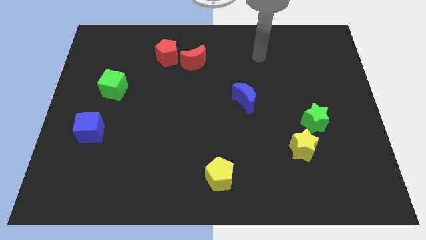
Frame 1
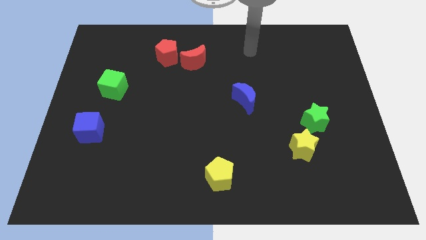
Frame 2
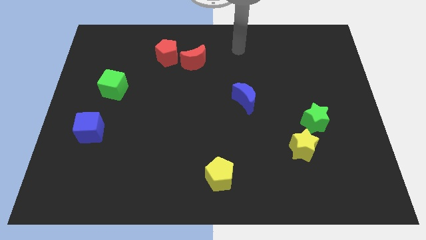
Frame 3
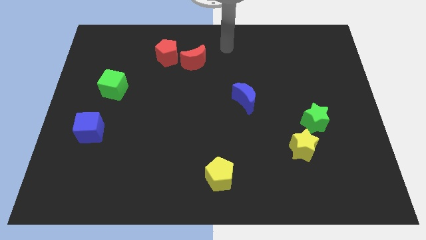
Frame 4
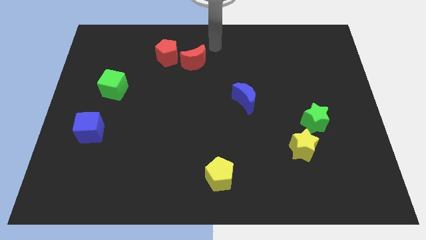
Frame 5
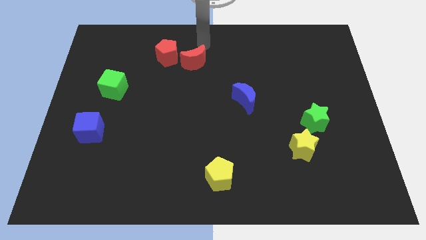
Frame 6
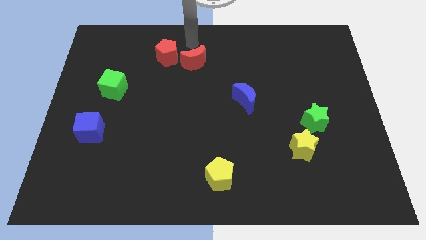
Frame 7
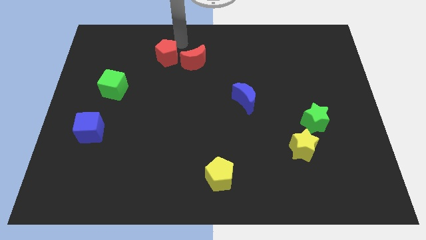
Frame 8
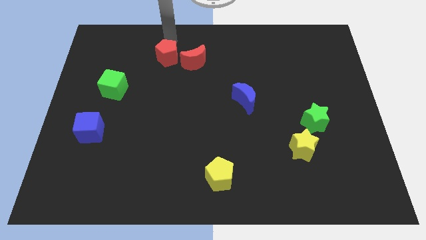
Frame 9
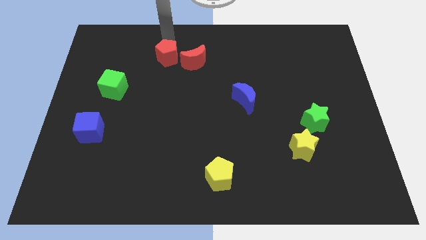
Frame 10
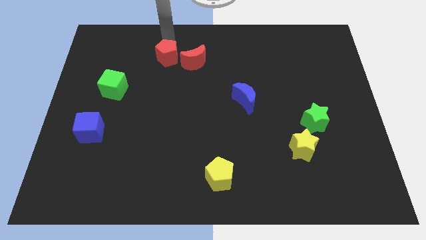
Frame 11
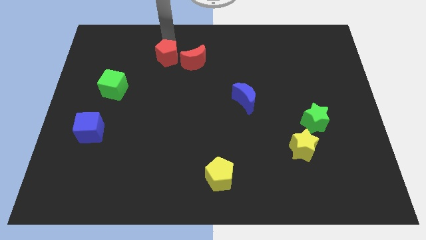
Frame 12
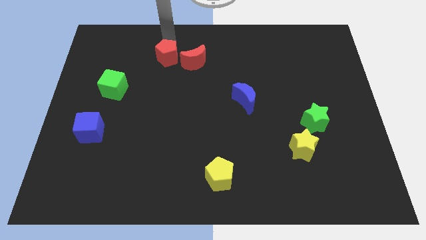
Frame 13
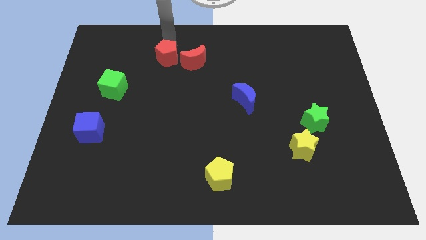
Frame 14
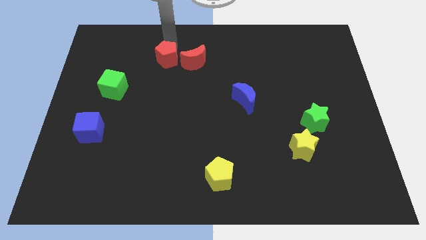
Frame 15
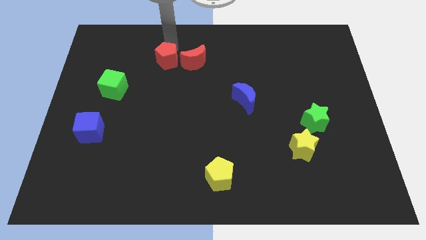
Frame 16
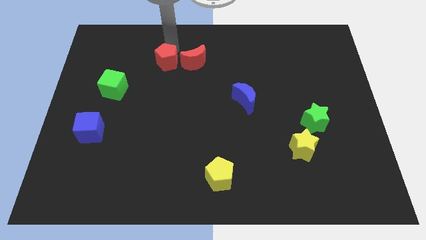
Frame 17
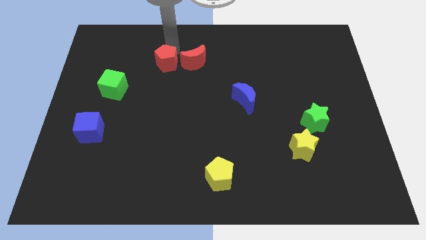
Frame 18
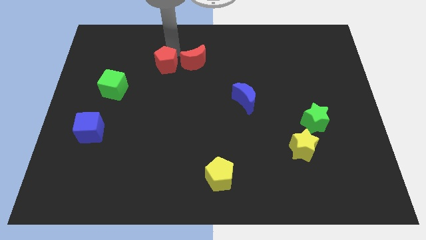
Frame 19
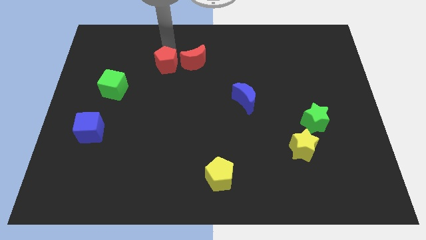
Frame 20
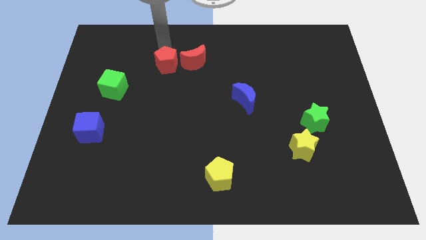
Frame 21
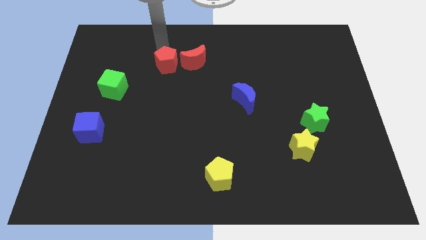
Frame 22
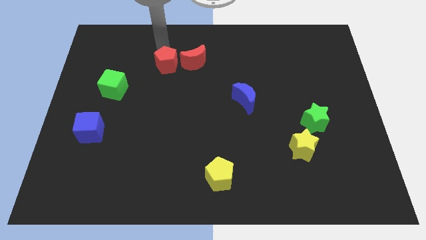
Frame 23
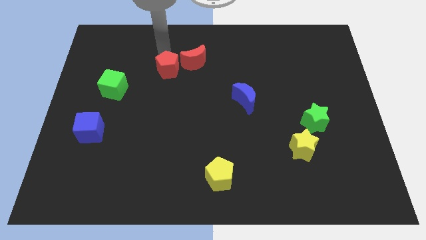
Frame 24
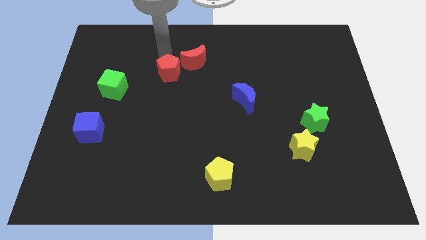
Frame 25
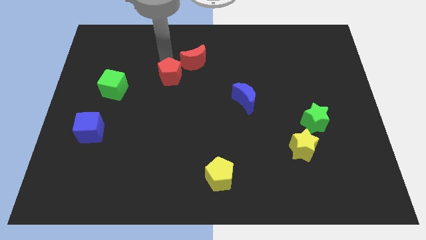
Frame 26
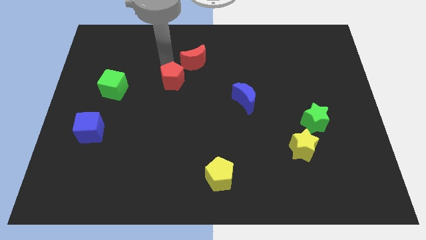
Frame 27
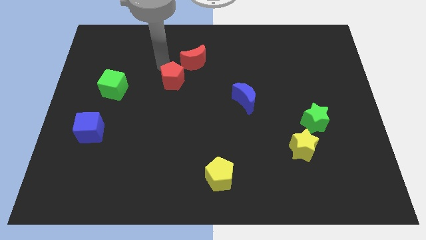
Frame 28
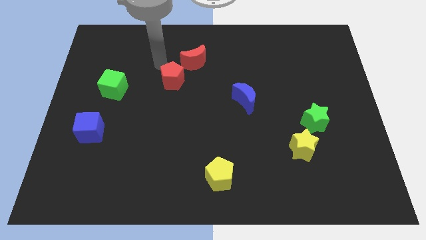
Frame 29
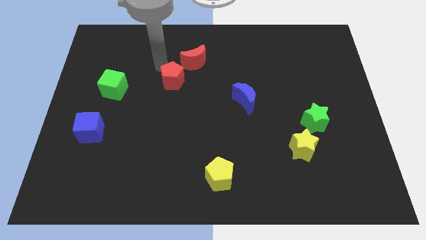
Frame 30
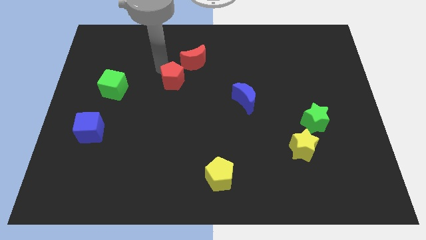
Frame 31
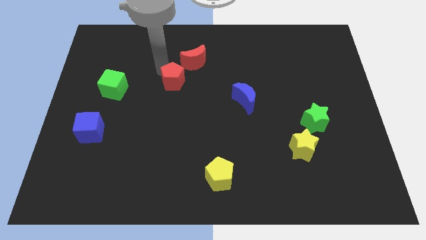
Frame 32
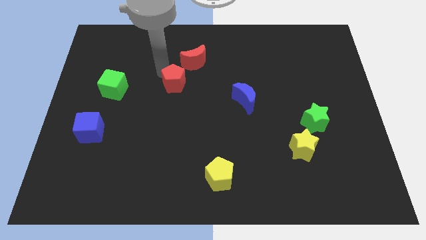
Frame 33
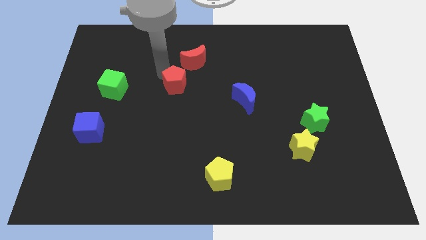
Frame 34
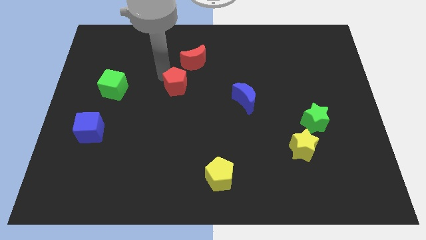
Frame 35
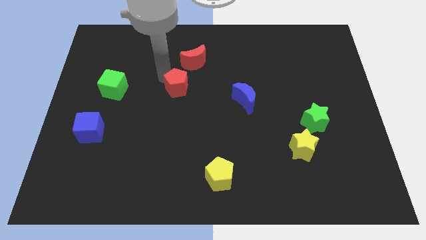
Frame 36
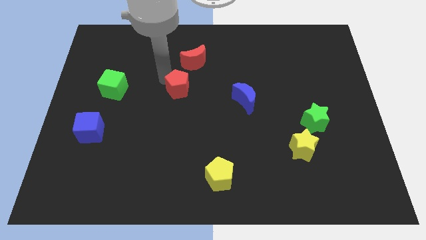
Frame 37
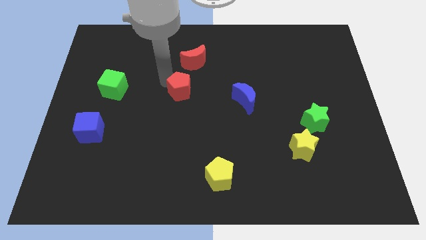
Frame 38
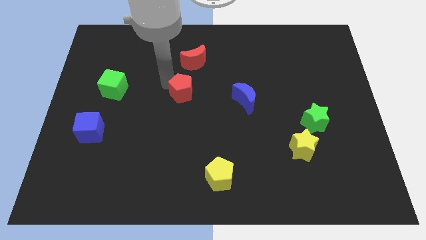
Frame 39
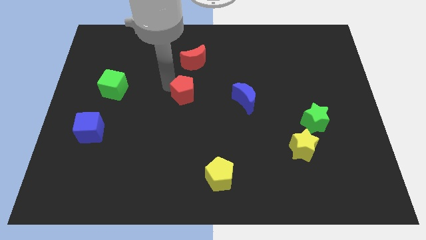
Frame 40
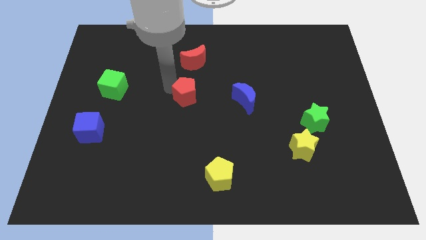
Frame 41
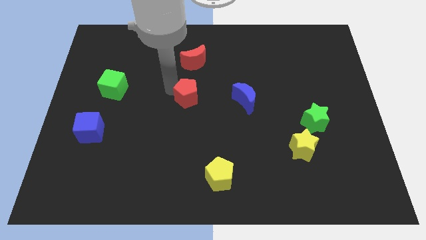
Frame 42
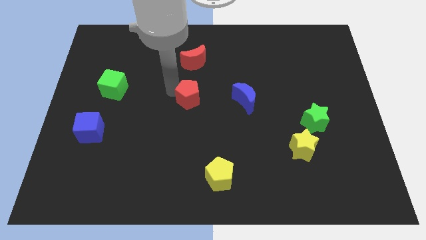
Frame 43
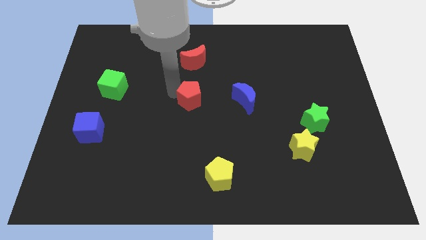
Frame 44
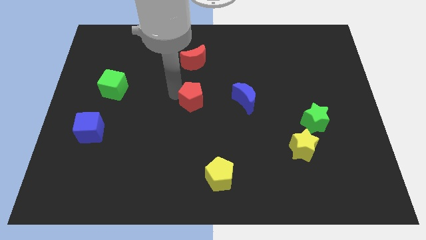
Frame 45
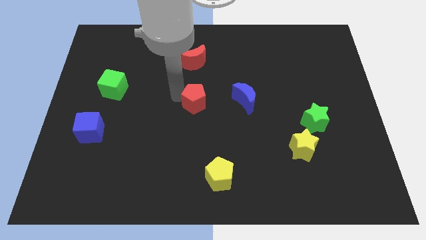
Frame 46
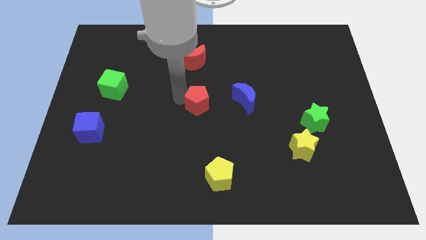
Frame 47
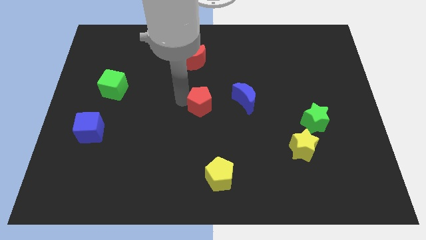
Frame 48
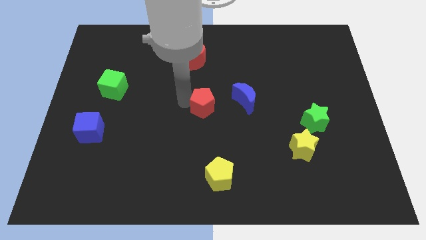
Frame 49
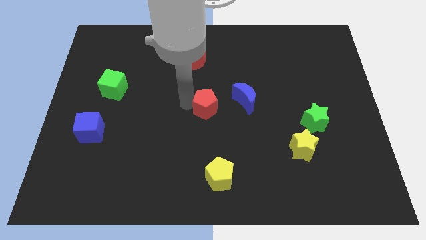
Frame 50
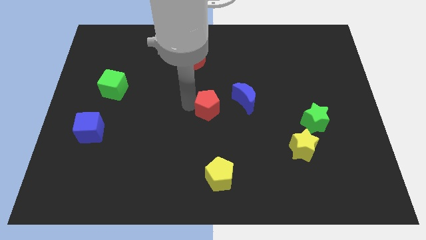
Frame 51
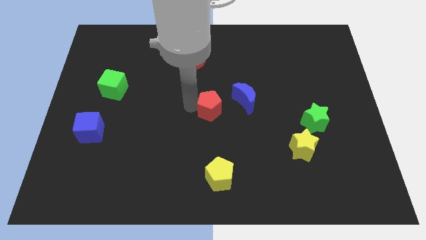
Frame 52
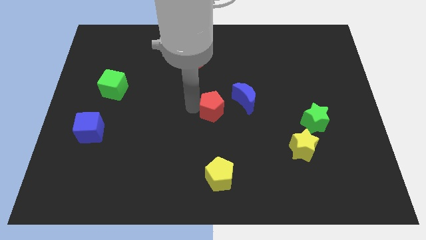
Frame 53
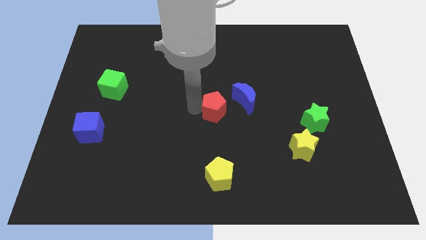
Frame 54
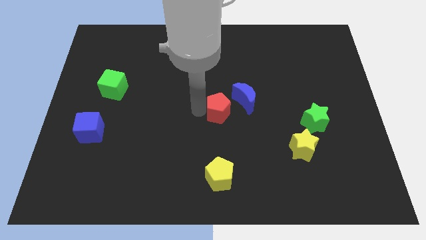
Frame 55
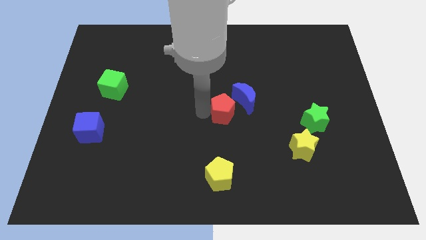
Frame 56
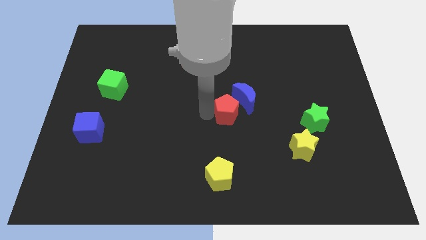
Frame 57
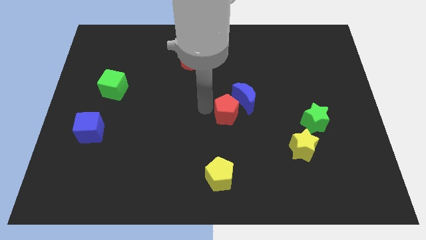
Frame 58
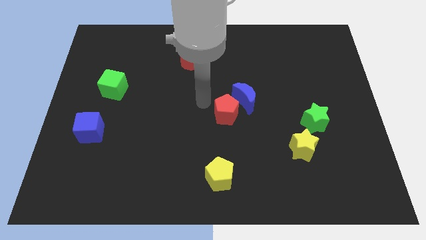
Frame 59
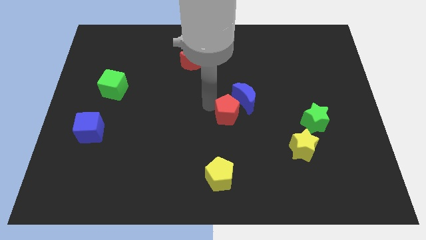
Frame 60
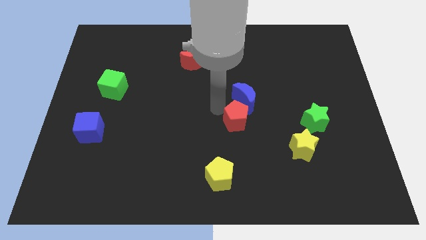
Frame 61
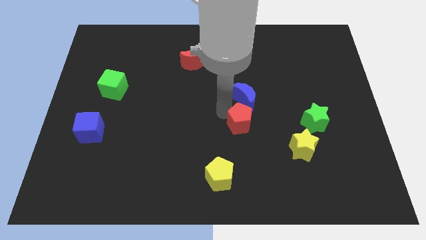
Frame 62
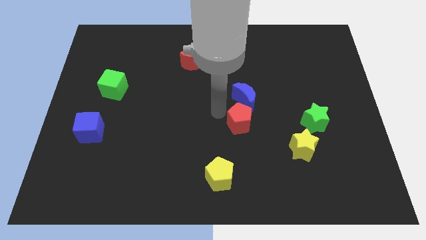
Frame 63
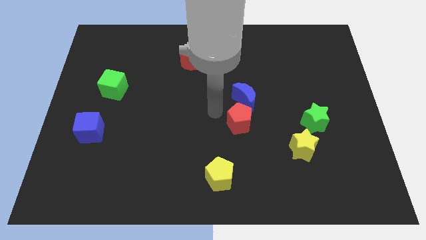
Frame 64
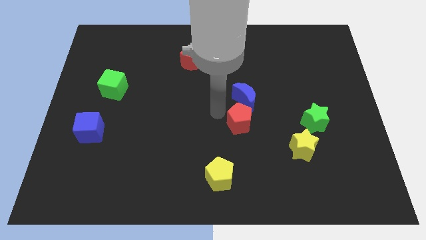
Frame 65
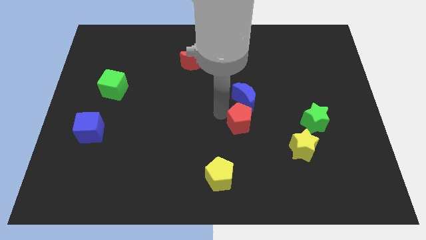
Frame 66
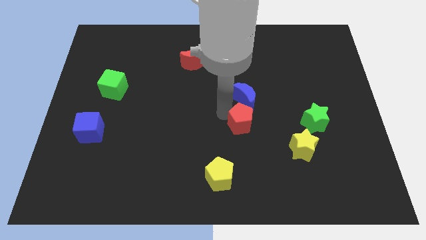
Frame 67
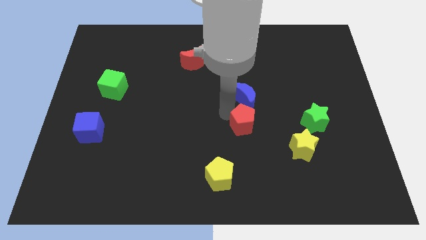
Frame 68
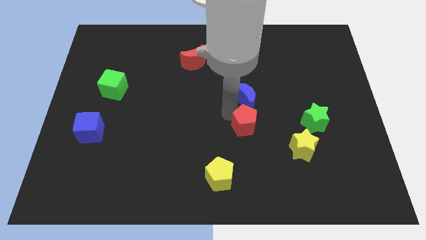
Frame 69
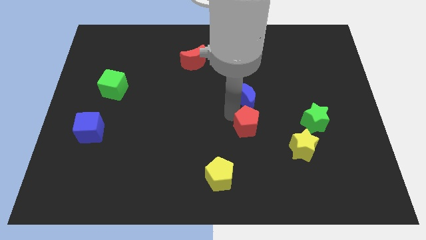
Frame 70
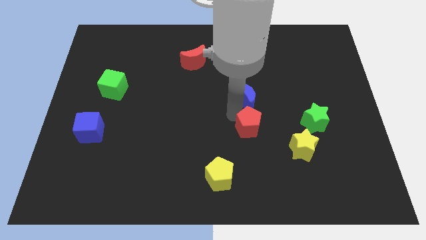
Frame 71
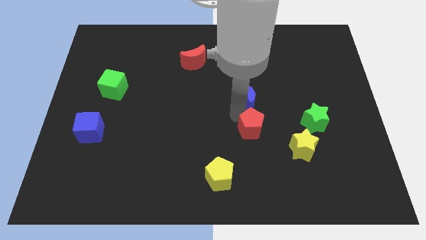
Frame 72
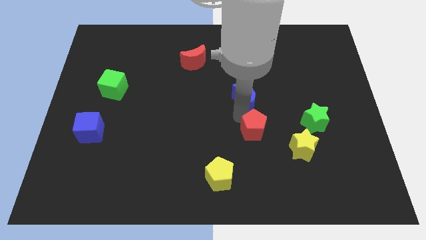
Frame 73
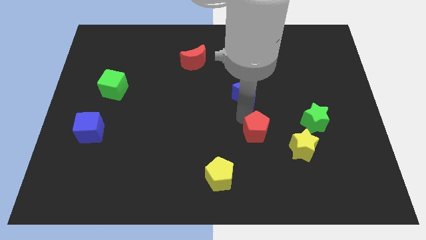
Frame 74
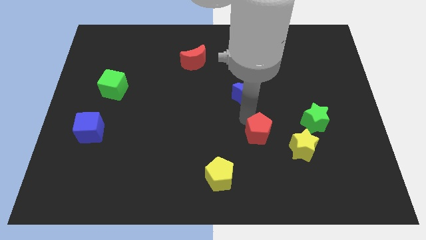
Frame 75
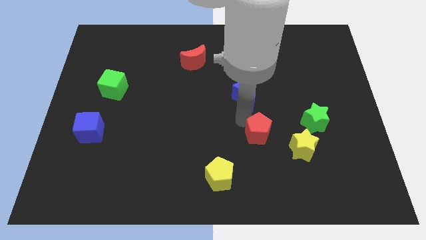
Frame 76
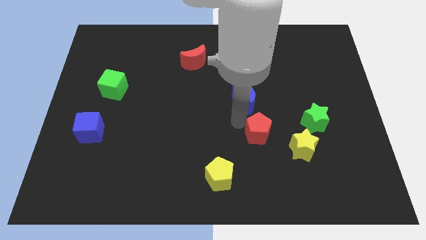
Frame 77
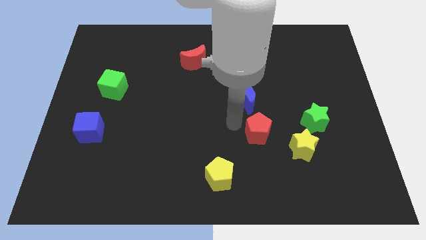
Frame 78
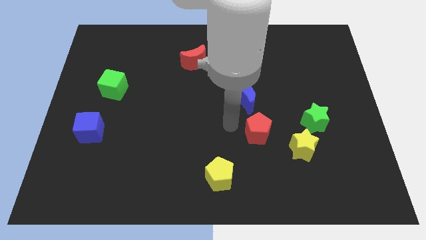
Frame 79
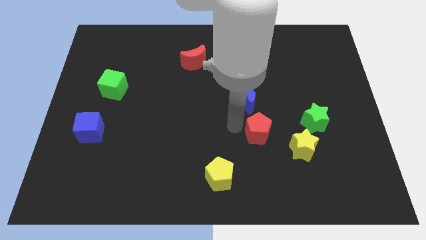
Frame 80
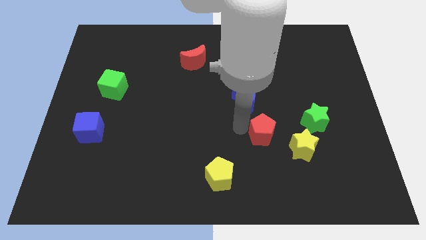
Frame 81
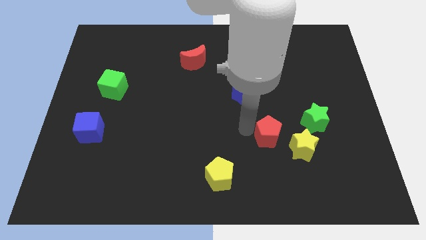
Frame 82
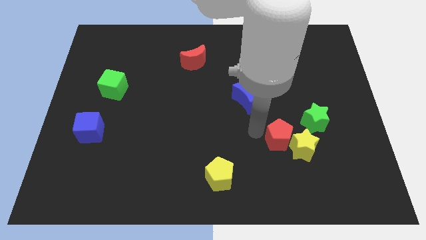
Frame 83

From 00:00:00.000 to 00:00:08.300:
slide the red pentagon towards the yellow star
